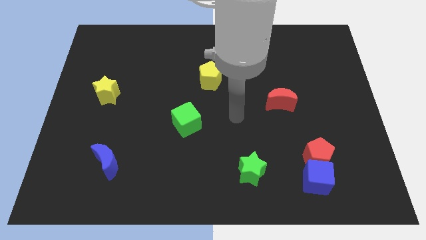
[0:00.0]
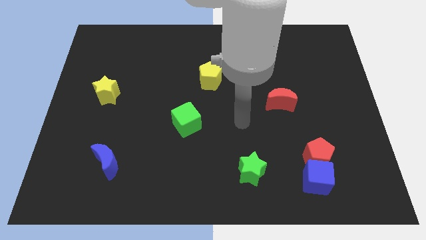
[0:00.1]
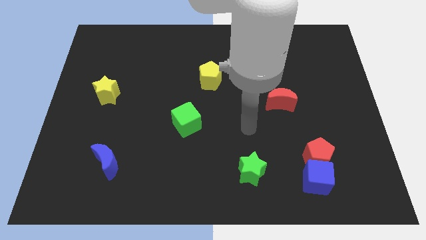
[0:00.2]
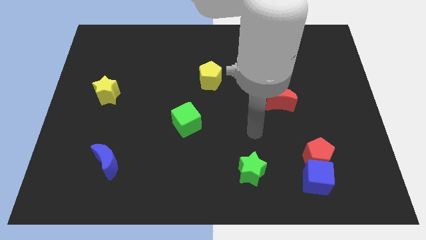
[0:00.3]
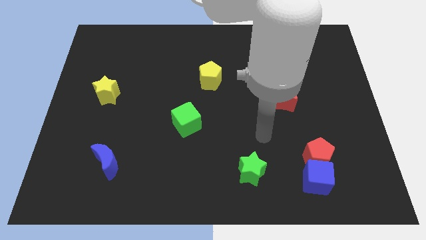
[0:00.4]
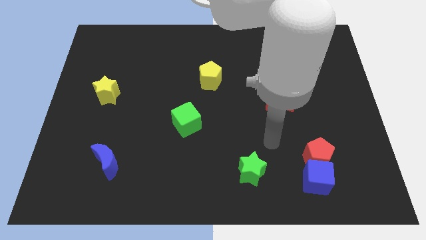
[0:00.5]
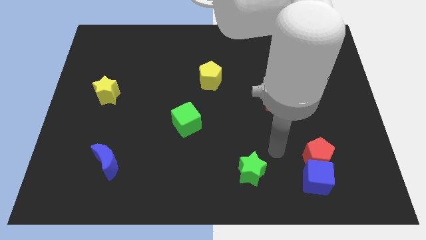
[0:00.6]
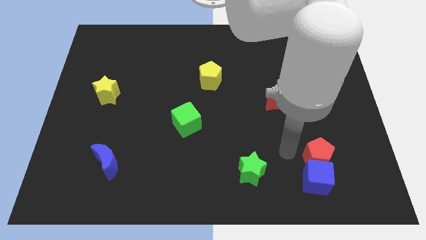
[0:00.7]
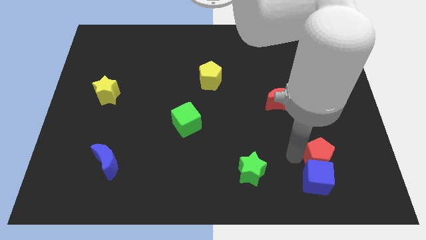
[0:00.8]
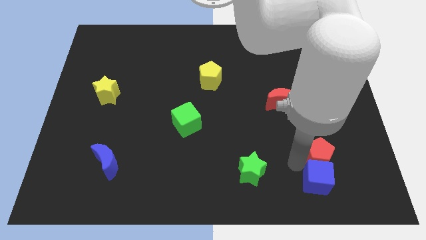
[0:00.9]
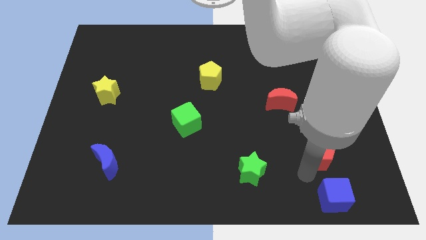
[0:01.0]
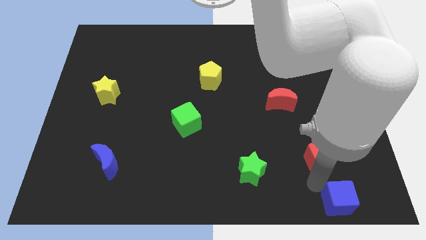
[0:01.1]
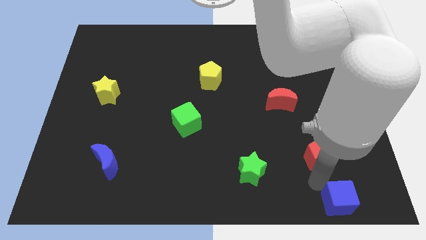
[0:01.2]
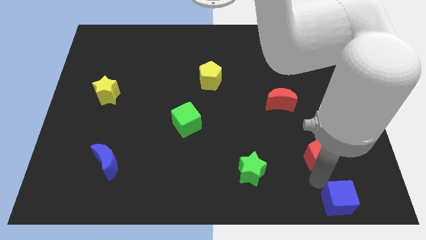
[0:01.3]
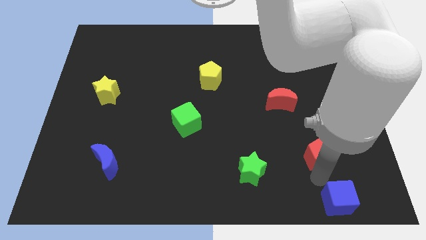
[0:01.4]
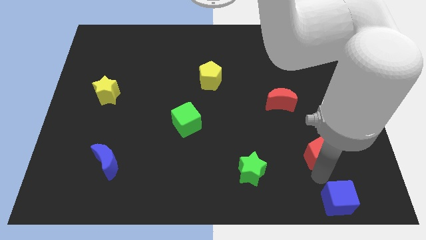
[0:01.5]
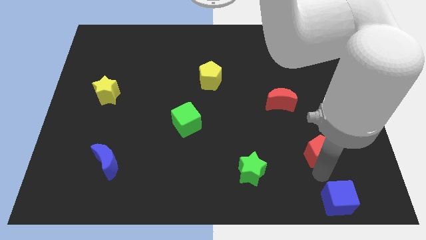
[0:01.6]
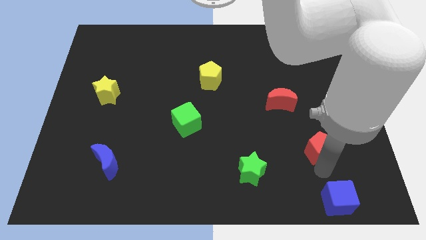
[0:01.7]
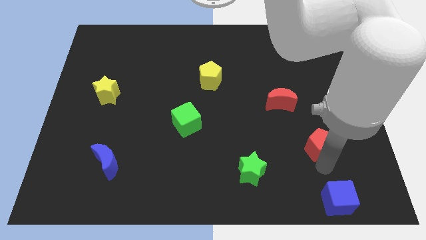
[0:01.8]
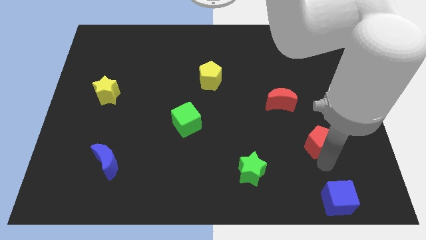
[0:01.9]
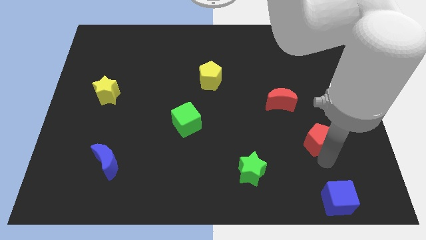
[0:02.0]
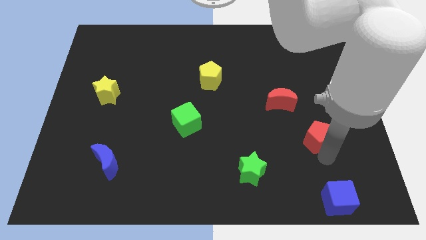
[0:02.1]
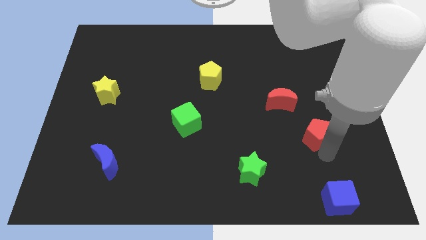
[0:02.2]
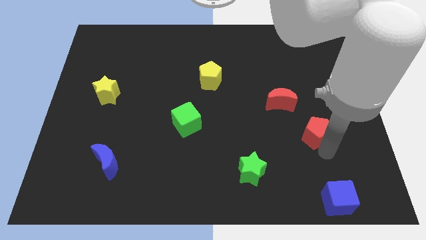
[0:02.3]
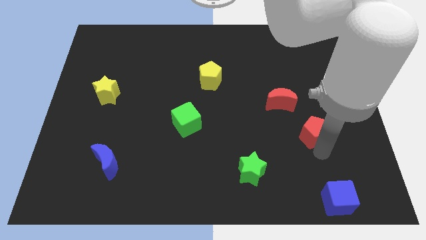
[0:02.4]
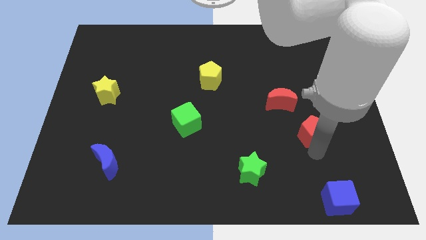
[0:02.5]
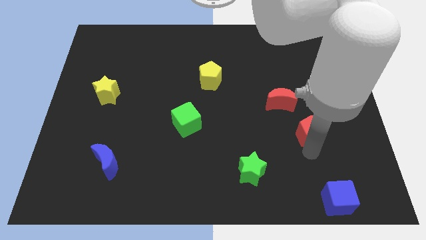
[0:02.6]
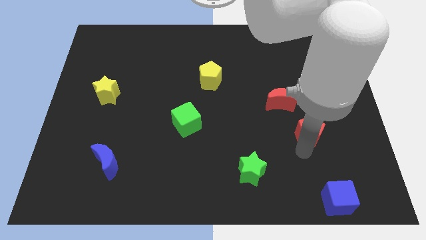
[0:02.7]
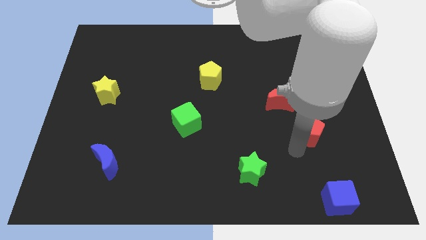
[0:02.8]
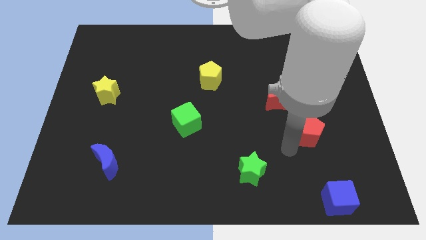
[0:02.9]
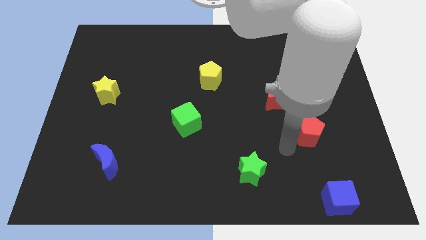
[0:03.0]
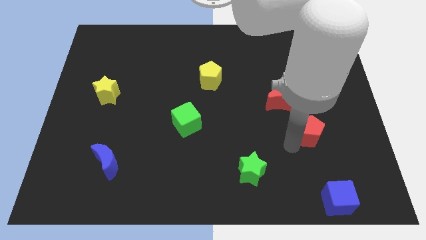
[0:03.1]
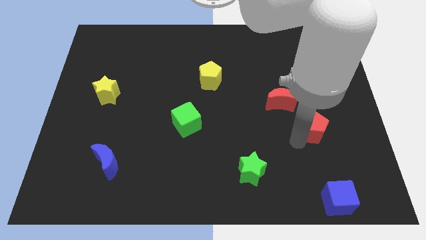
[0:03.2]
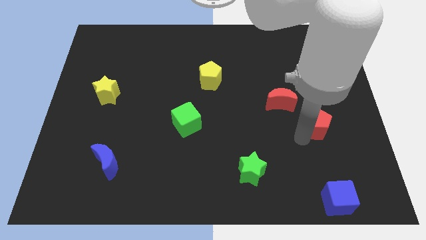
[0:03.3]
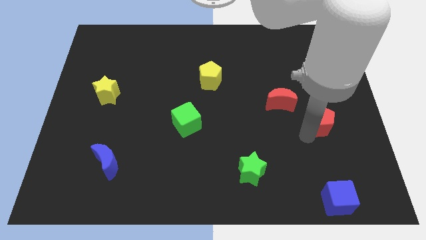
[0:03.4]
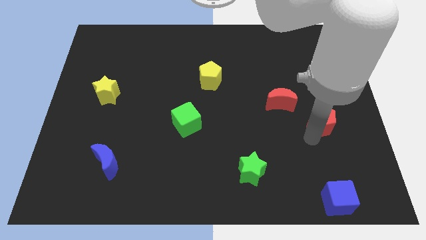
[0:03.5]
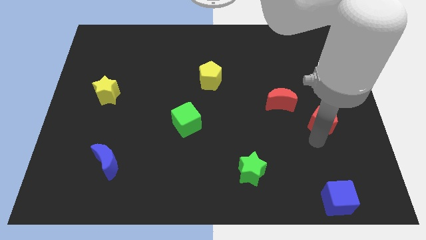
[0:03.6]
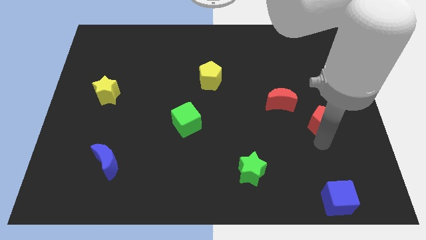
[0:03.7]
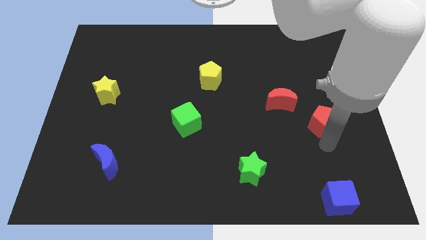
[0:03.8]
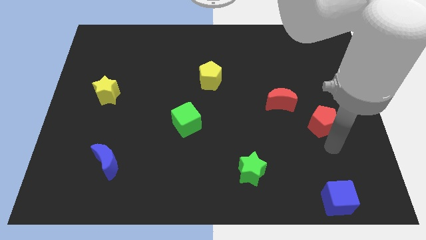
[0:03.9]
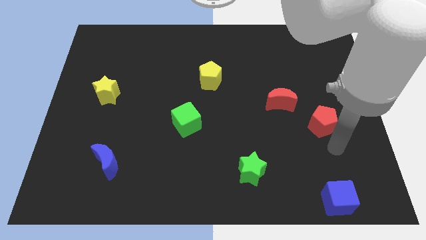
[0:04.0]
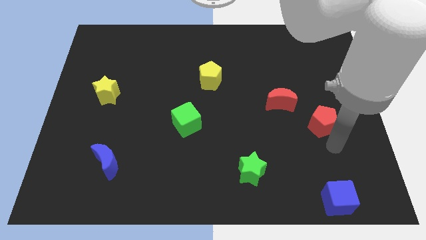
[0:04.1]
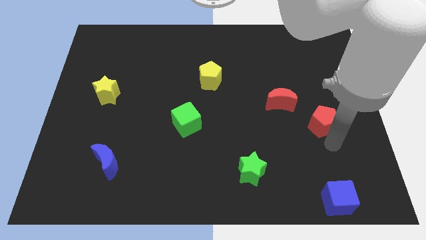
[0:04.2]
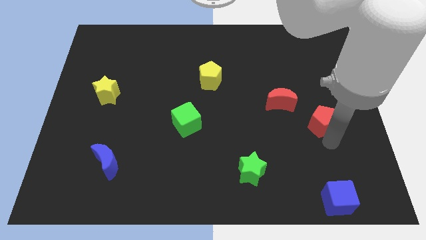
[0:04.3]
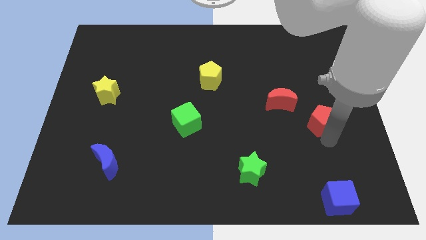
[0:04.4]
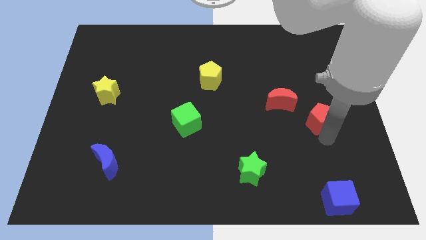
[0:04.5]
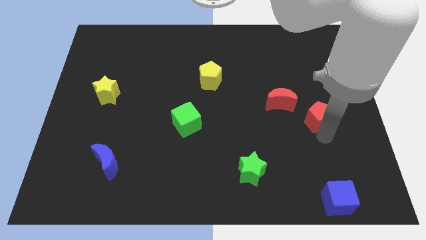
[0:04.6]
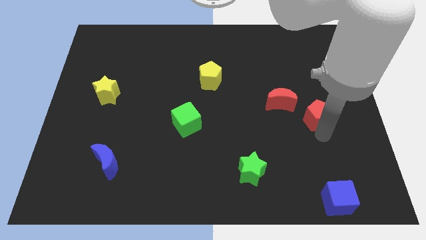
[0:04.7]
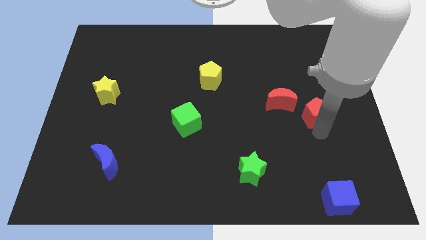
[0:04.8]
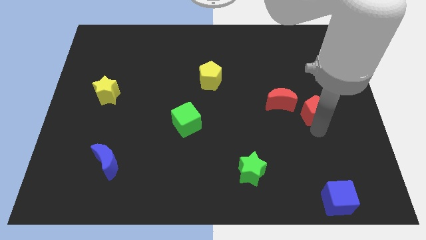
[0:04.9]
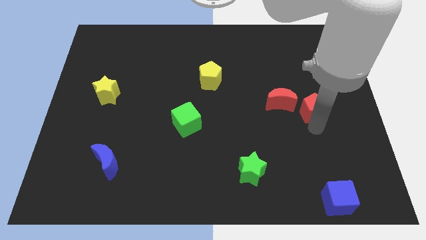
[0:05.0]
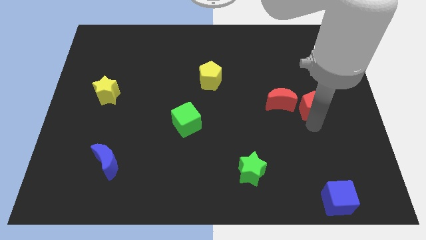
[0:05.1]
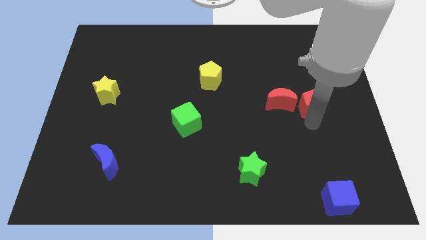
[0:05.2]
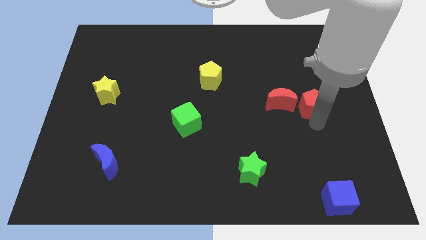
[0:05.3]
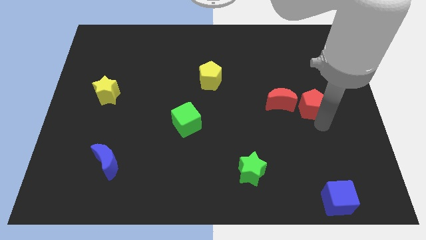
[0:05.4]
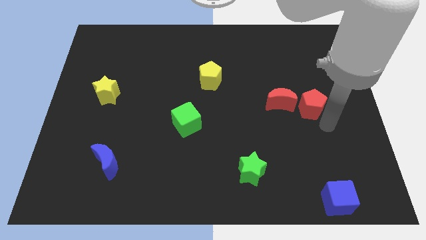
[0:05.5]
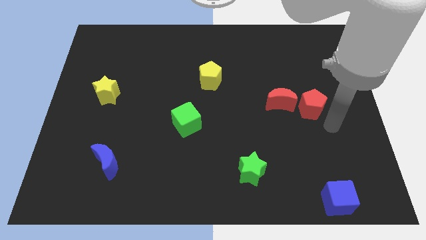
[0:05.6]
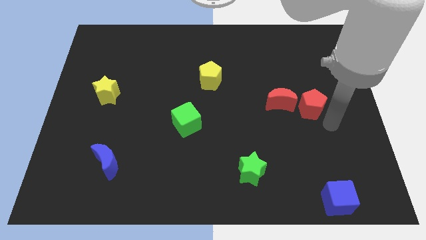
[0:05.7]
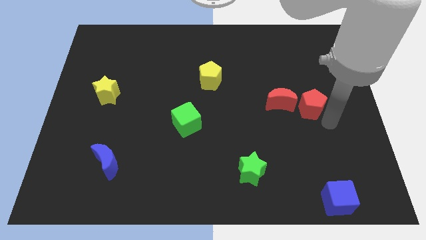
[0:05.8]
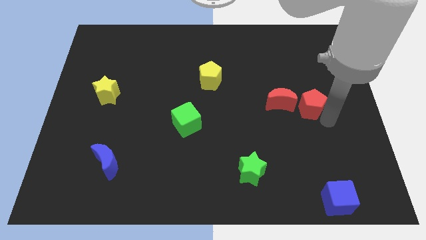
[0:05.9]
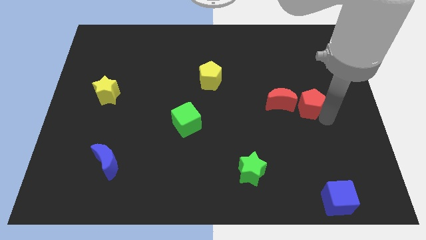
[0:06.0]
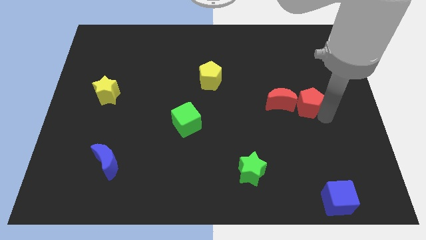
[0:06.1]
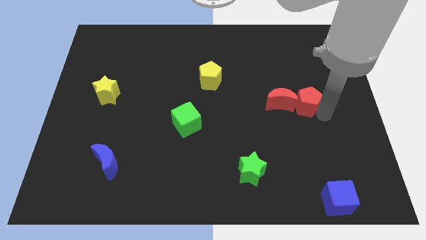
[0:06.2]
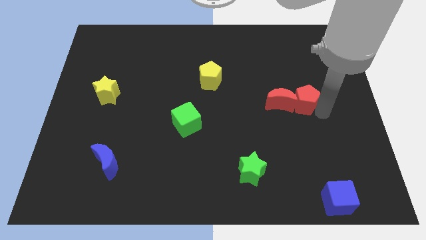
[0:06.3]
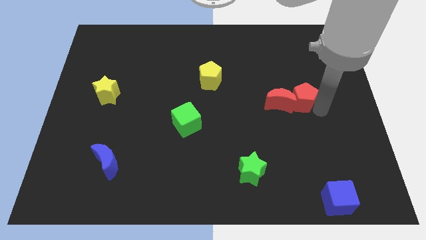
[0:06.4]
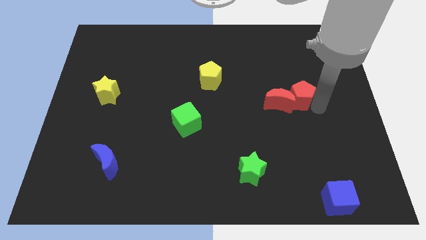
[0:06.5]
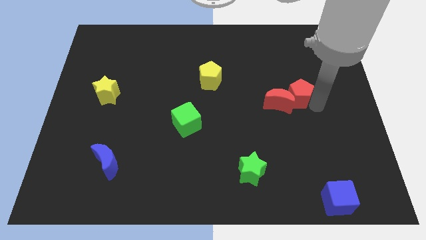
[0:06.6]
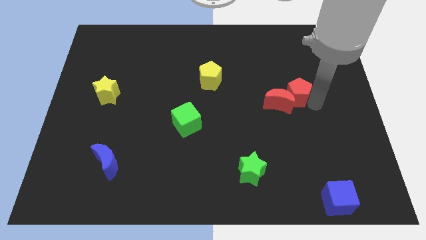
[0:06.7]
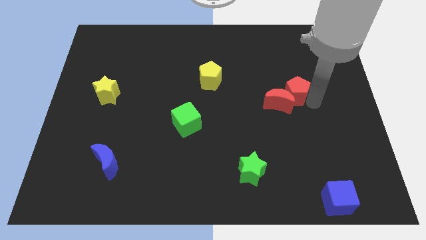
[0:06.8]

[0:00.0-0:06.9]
move the red pentagon above the red moon

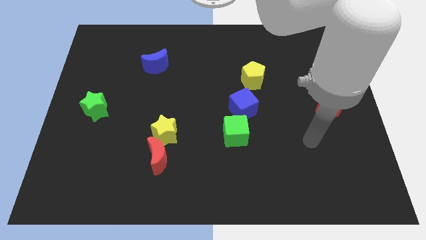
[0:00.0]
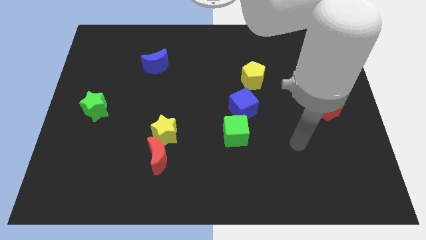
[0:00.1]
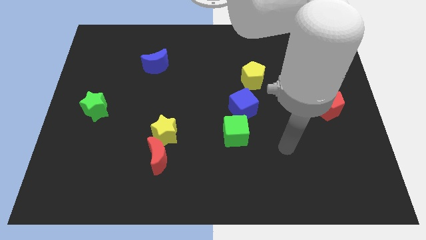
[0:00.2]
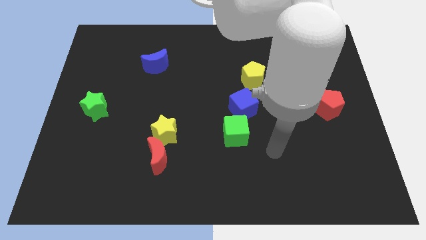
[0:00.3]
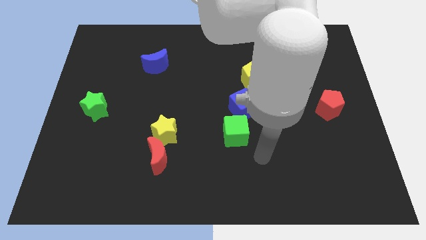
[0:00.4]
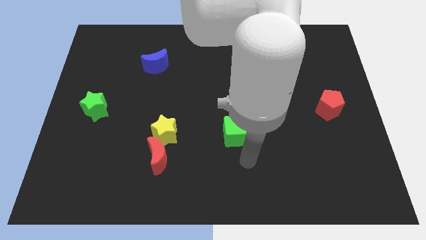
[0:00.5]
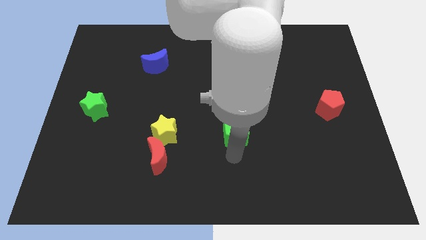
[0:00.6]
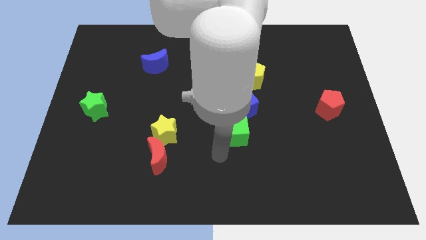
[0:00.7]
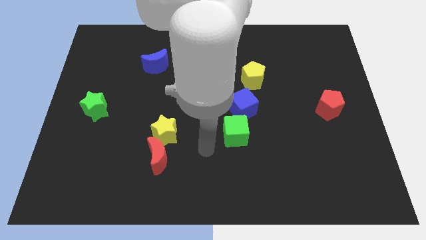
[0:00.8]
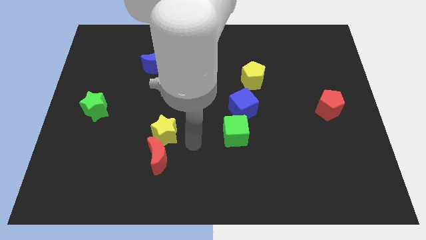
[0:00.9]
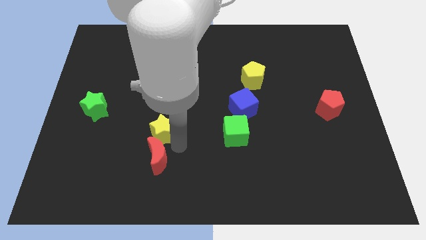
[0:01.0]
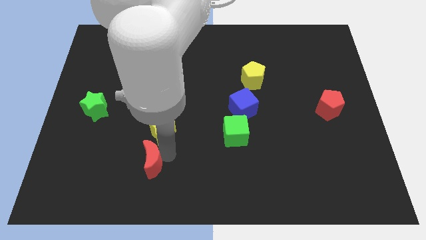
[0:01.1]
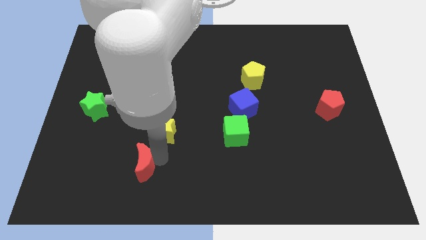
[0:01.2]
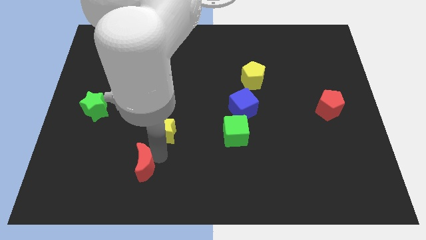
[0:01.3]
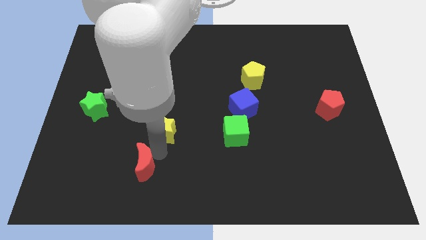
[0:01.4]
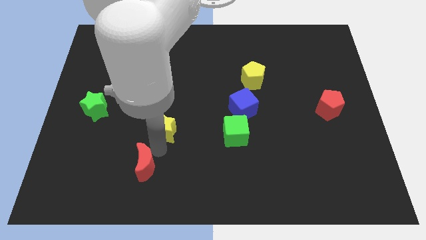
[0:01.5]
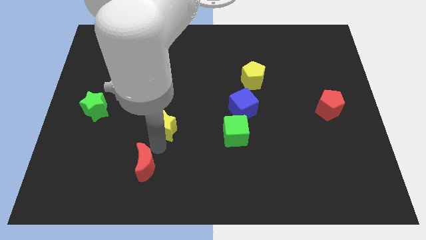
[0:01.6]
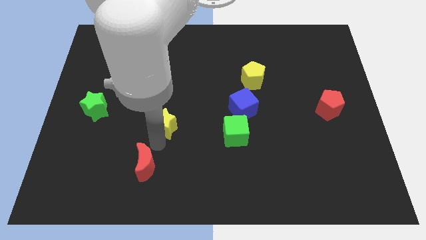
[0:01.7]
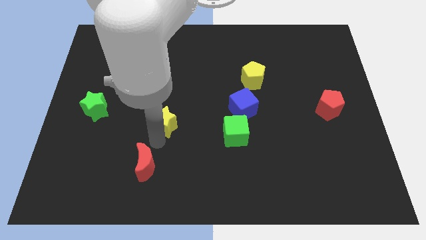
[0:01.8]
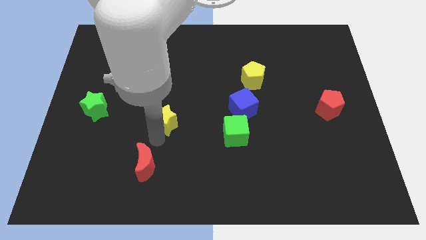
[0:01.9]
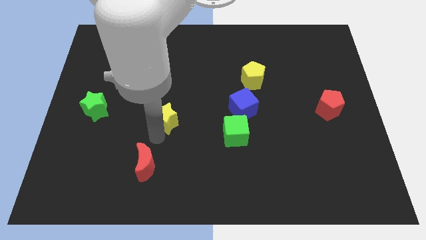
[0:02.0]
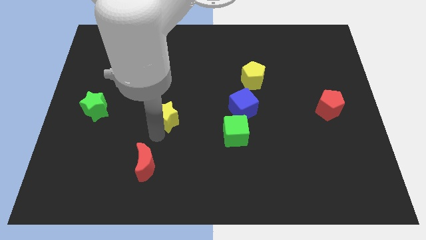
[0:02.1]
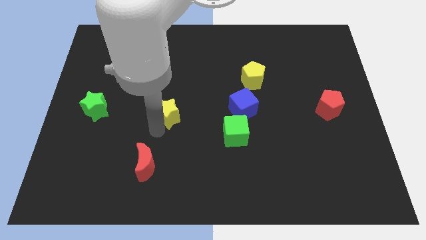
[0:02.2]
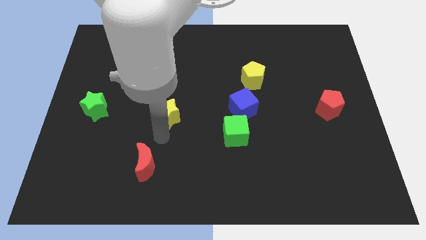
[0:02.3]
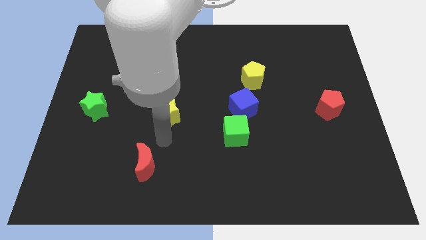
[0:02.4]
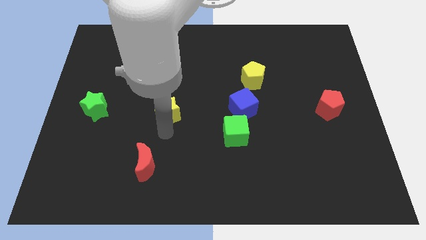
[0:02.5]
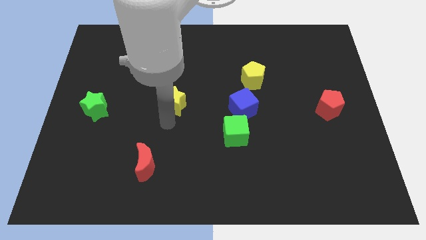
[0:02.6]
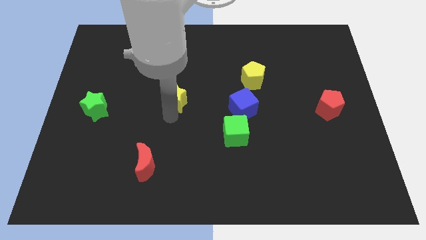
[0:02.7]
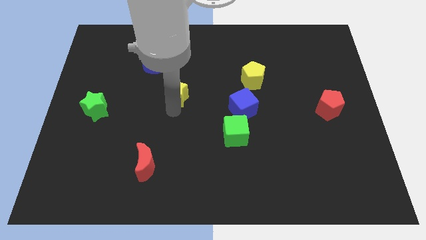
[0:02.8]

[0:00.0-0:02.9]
slide the yellow star diagonally down and to the right of the blue moon
